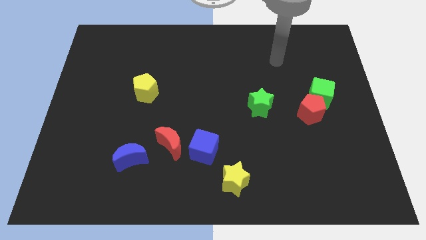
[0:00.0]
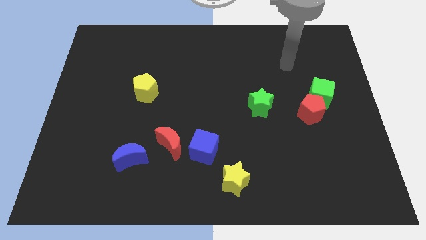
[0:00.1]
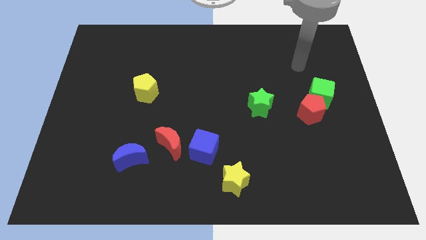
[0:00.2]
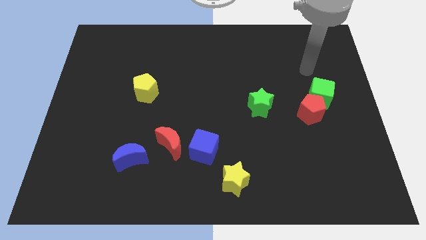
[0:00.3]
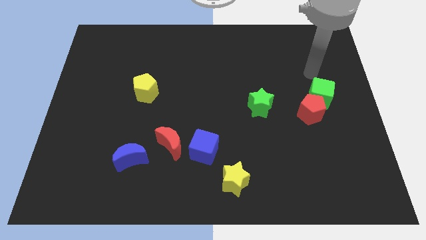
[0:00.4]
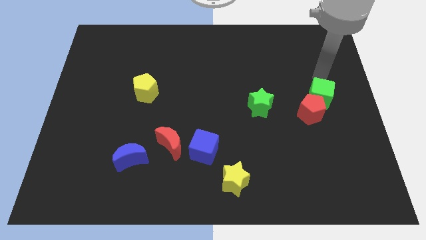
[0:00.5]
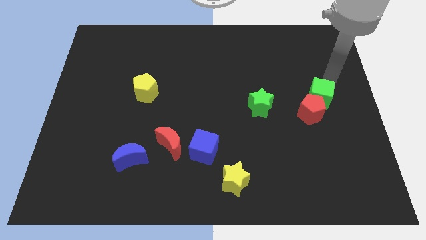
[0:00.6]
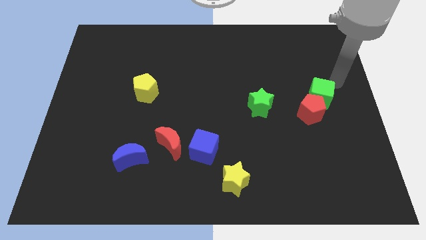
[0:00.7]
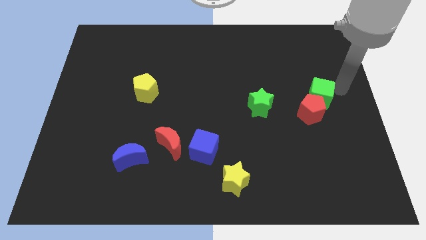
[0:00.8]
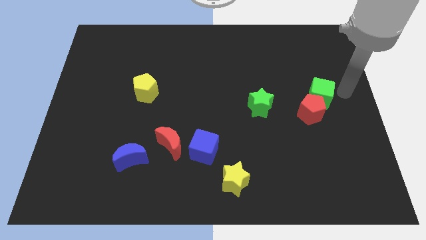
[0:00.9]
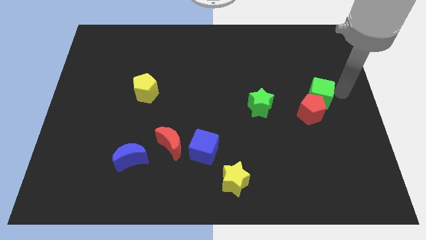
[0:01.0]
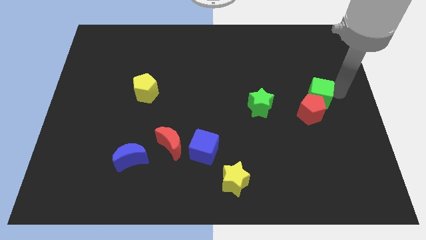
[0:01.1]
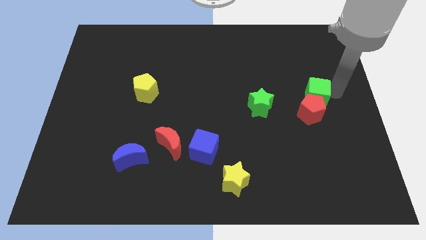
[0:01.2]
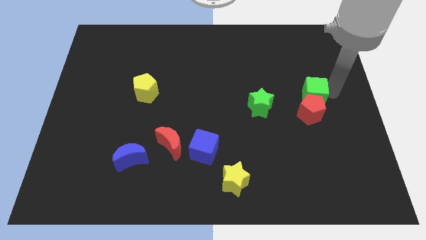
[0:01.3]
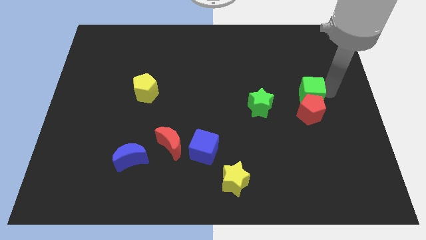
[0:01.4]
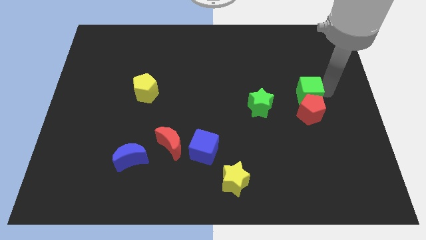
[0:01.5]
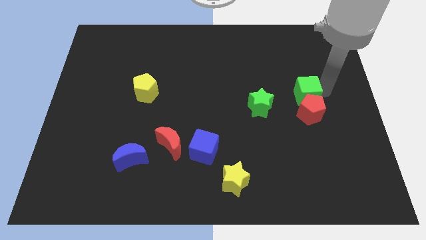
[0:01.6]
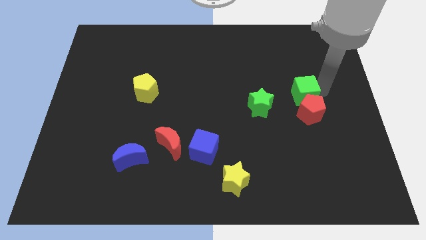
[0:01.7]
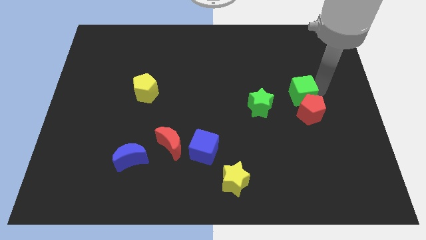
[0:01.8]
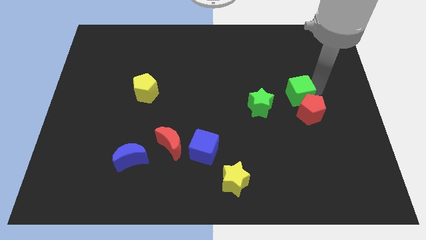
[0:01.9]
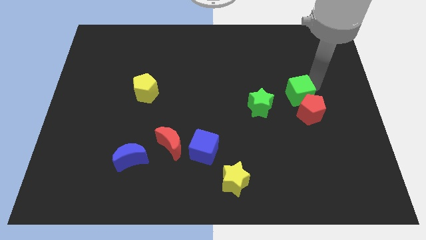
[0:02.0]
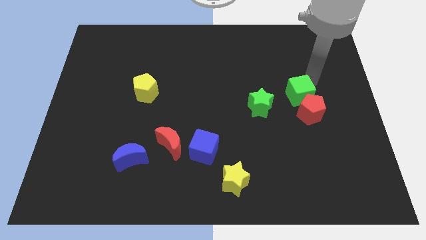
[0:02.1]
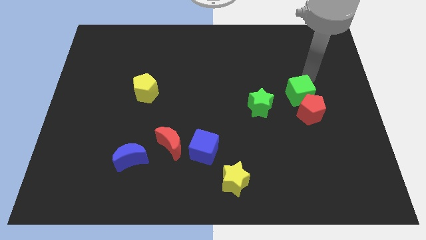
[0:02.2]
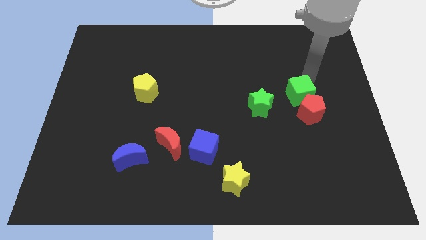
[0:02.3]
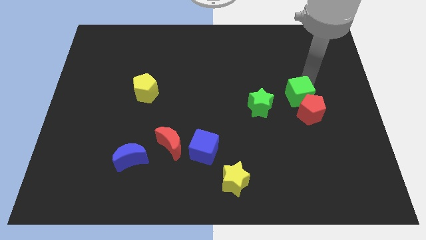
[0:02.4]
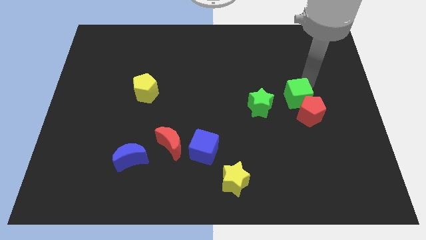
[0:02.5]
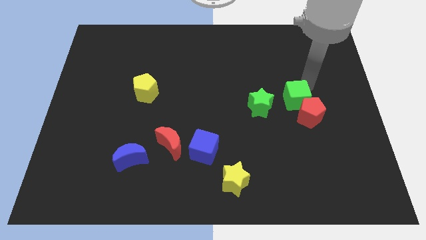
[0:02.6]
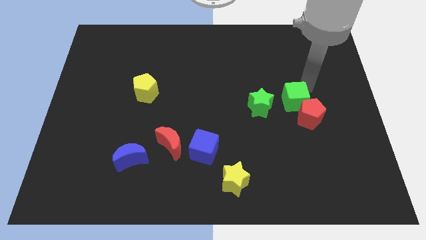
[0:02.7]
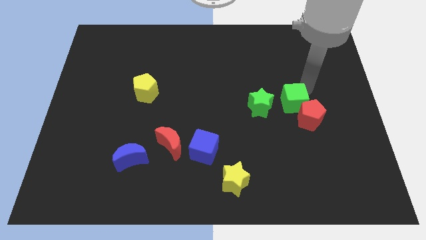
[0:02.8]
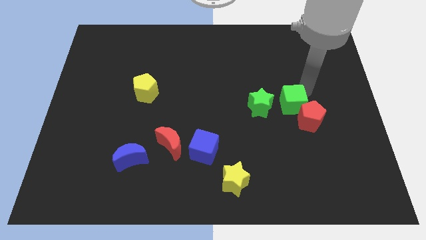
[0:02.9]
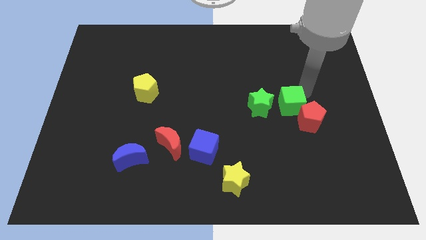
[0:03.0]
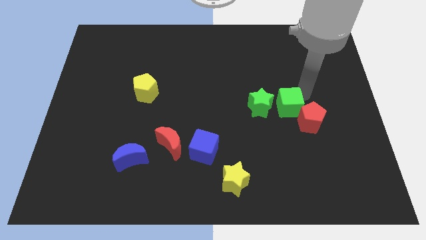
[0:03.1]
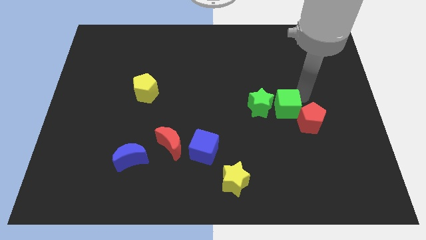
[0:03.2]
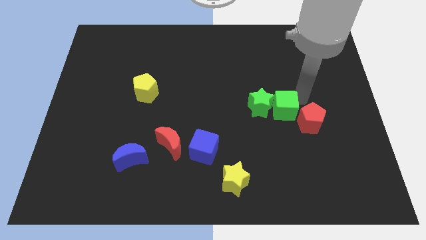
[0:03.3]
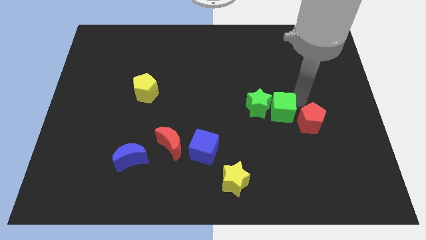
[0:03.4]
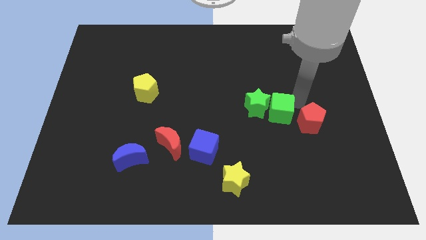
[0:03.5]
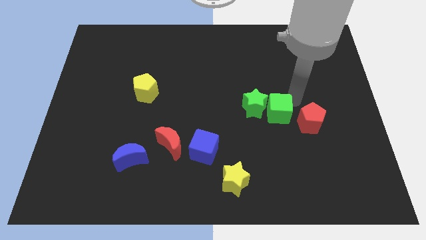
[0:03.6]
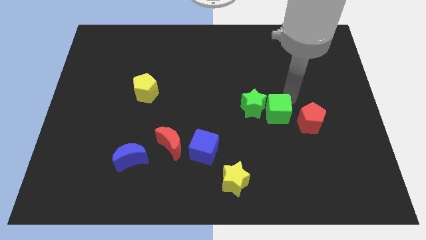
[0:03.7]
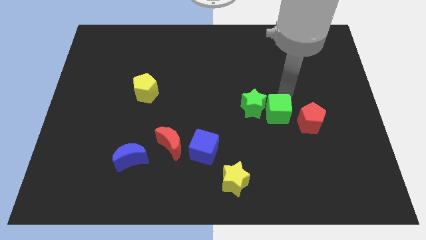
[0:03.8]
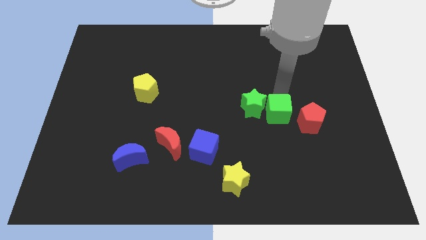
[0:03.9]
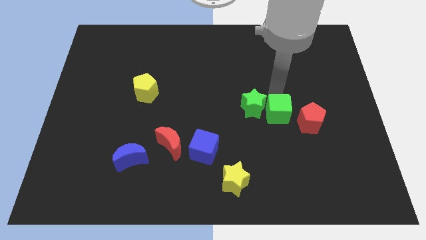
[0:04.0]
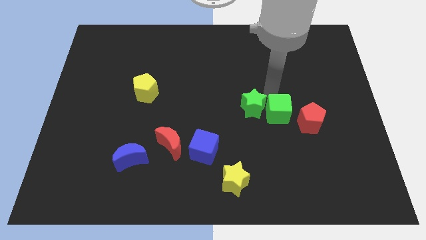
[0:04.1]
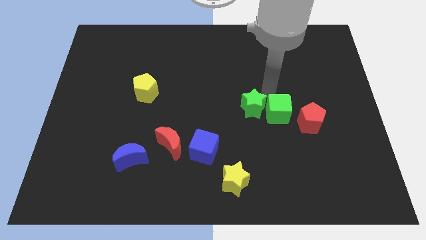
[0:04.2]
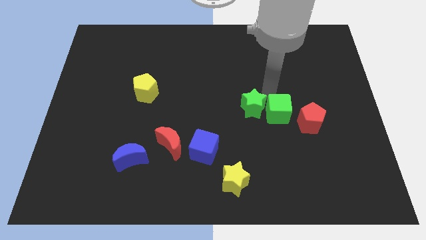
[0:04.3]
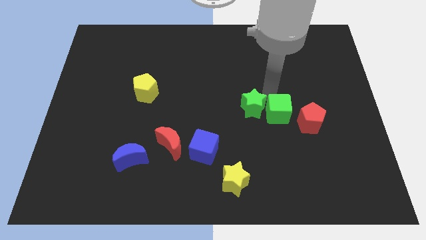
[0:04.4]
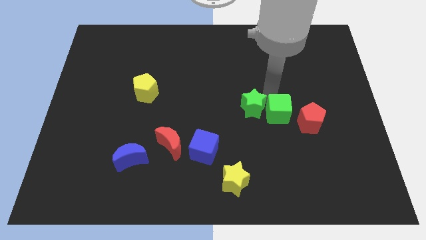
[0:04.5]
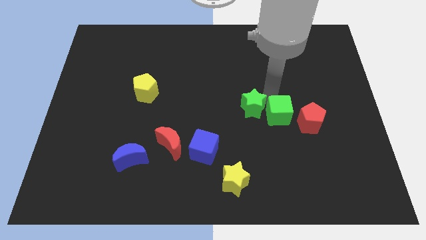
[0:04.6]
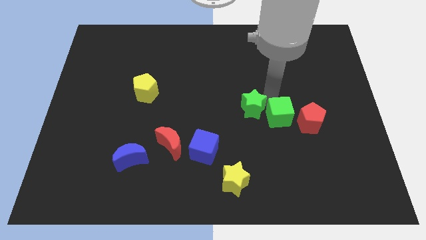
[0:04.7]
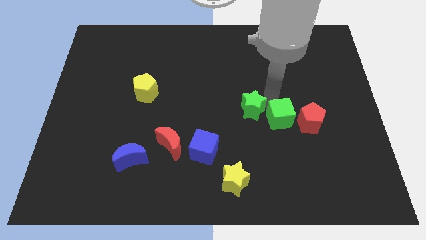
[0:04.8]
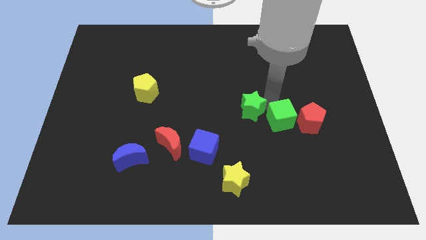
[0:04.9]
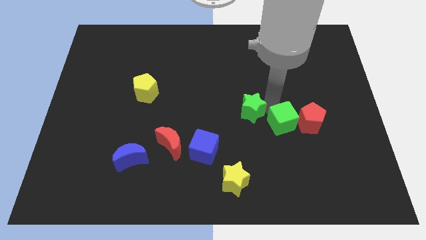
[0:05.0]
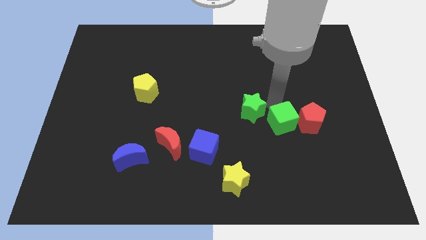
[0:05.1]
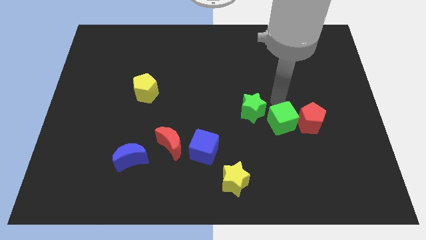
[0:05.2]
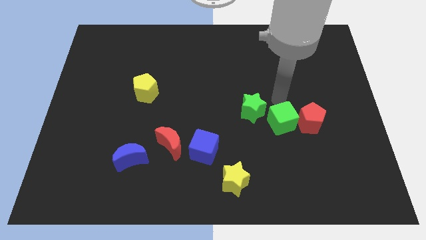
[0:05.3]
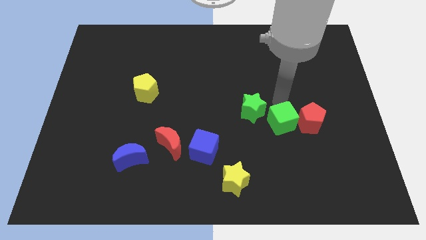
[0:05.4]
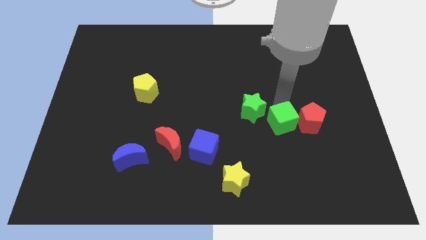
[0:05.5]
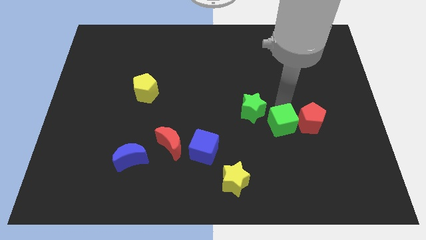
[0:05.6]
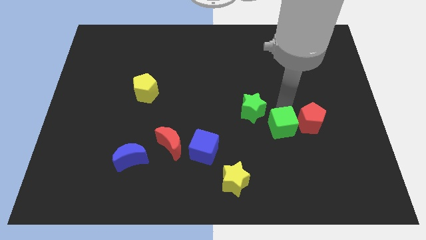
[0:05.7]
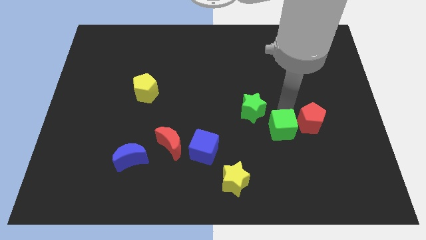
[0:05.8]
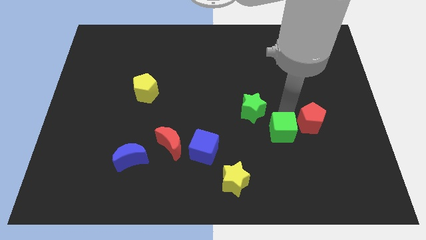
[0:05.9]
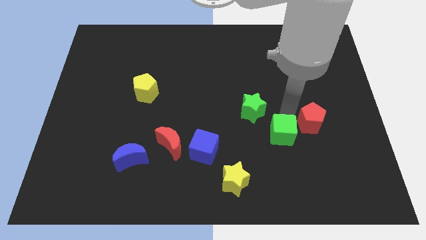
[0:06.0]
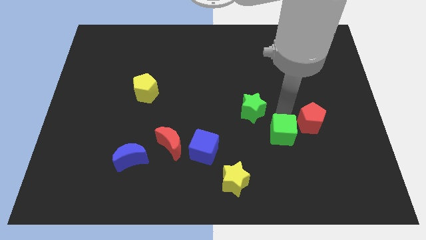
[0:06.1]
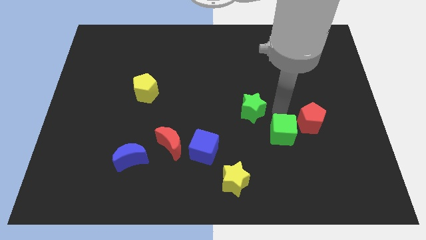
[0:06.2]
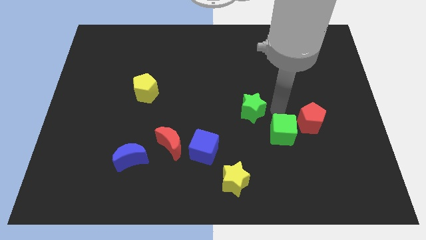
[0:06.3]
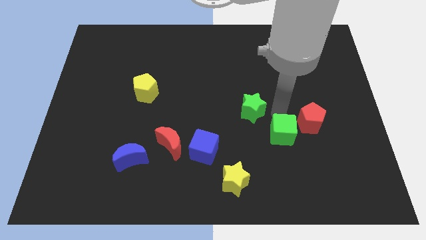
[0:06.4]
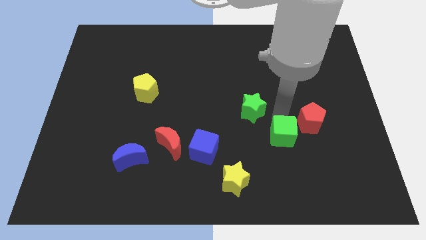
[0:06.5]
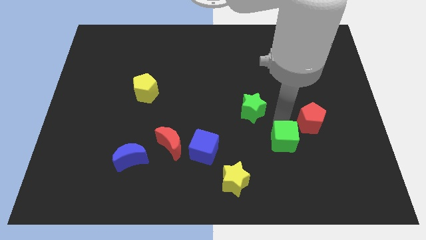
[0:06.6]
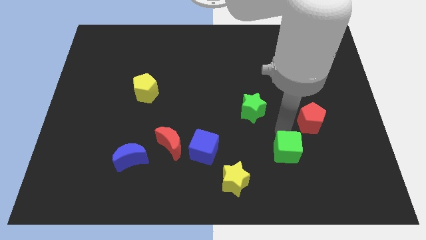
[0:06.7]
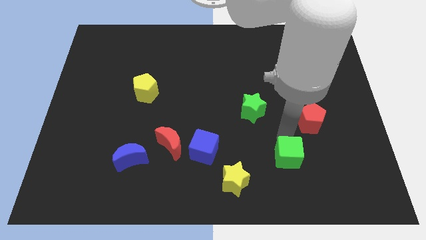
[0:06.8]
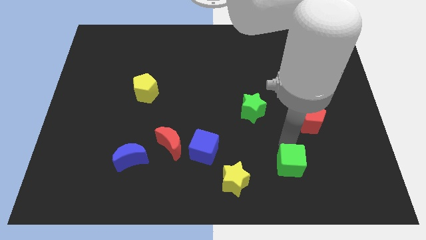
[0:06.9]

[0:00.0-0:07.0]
push the green cube just right of the yellow star

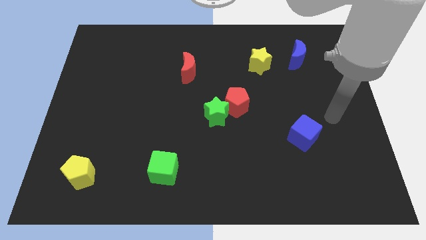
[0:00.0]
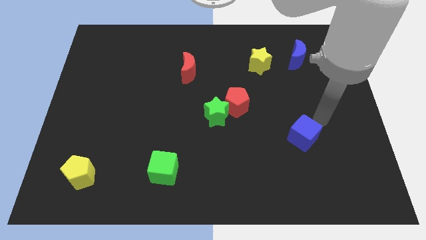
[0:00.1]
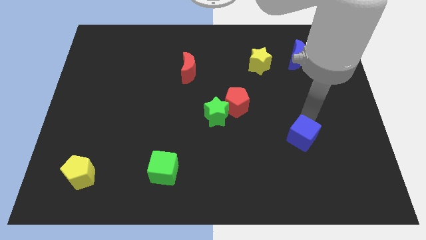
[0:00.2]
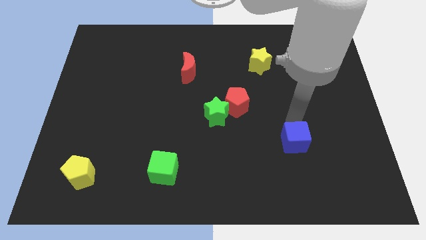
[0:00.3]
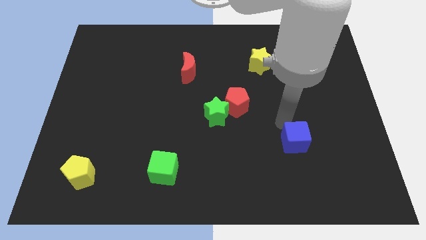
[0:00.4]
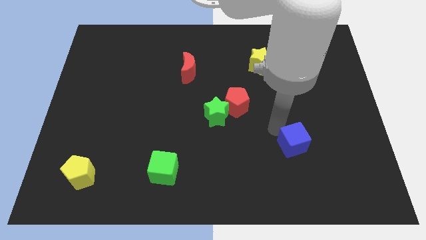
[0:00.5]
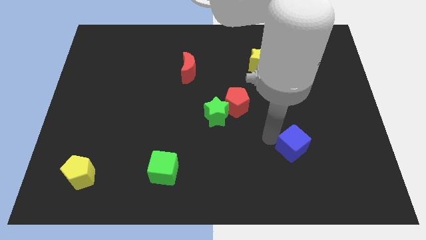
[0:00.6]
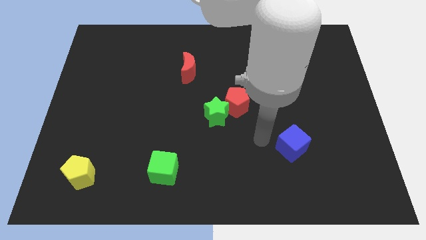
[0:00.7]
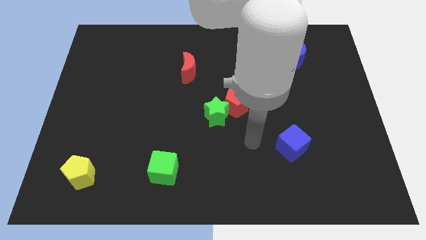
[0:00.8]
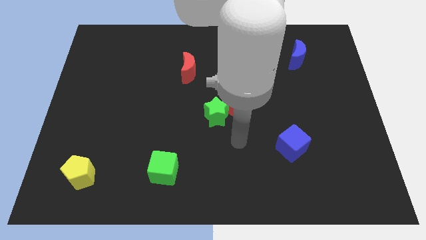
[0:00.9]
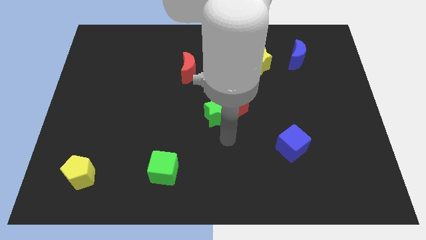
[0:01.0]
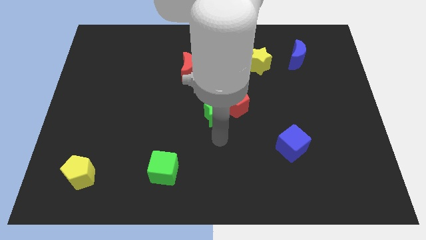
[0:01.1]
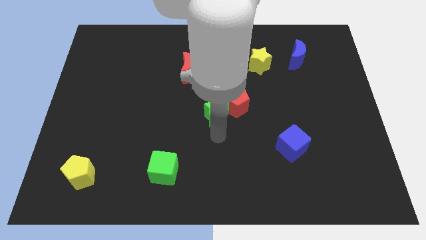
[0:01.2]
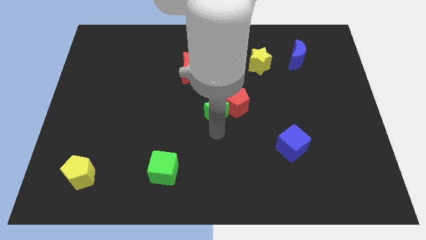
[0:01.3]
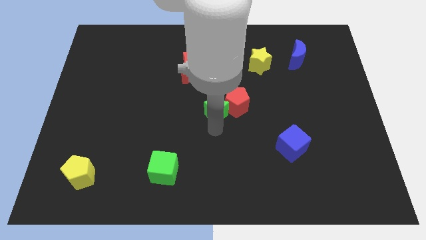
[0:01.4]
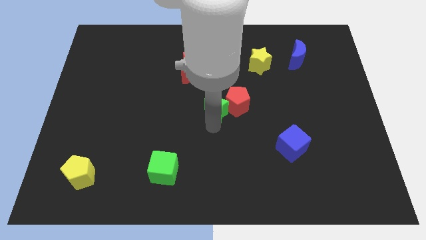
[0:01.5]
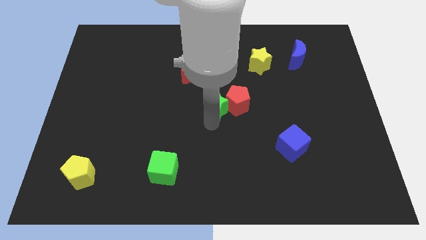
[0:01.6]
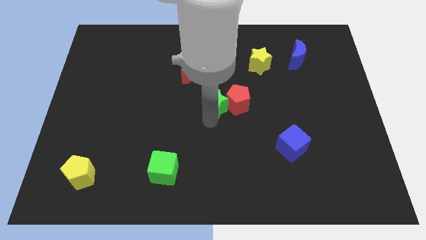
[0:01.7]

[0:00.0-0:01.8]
move the green star to the top left of the red pentagon
